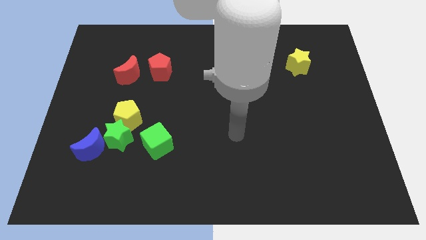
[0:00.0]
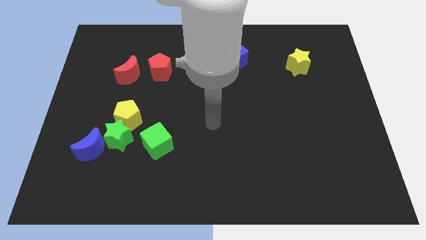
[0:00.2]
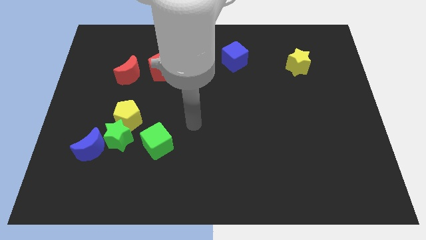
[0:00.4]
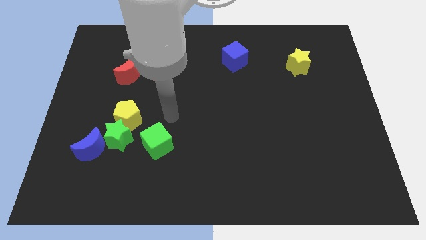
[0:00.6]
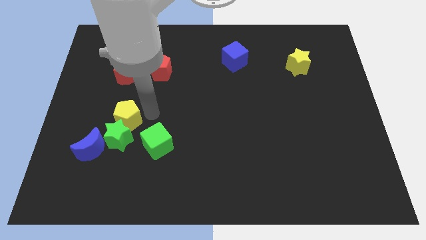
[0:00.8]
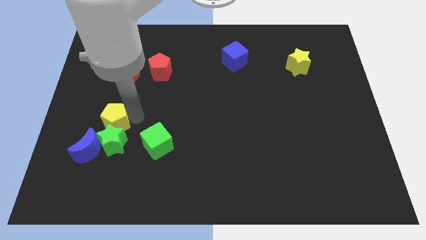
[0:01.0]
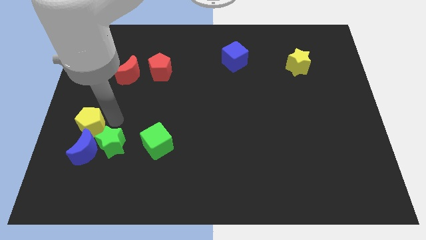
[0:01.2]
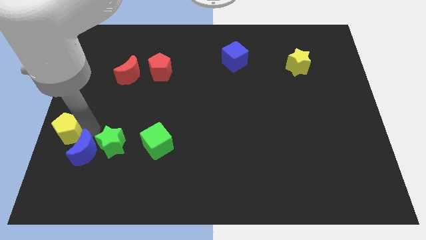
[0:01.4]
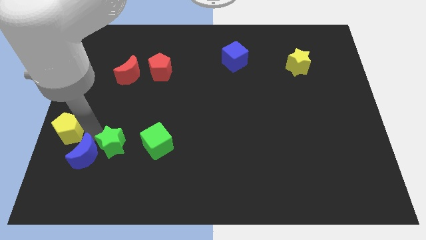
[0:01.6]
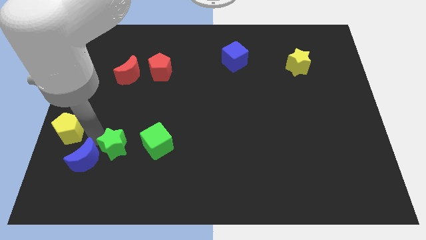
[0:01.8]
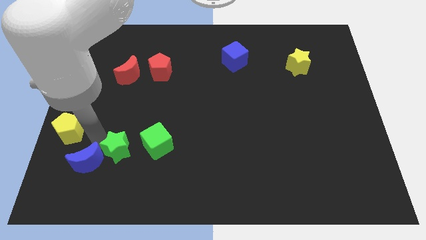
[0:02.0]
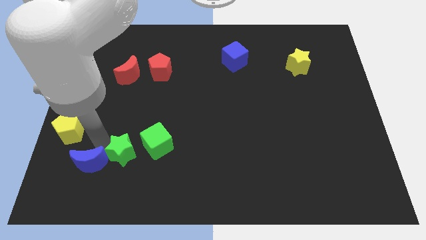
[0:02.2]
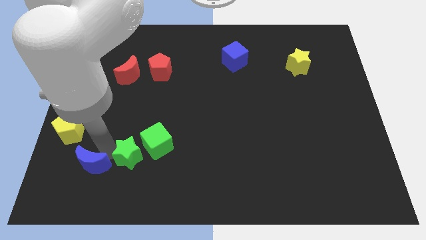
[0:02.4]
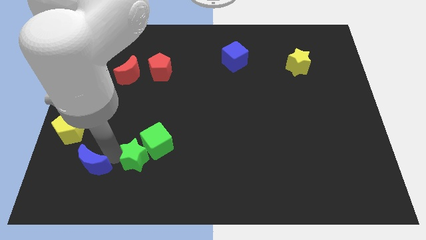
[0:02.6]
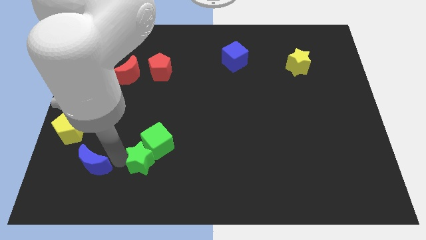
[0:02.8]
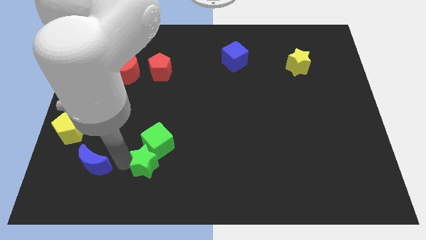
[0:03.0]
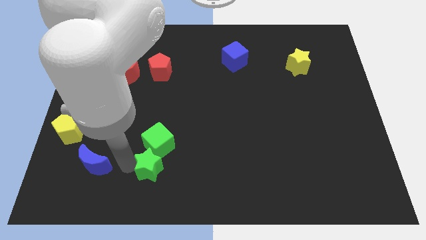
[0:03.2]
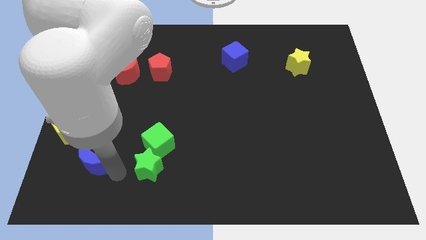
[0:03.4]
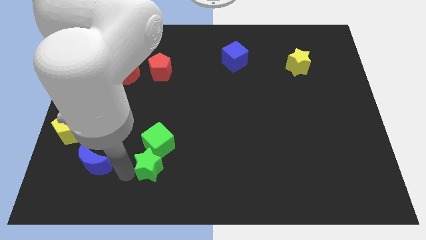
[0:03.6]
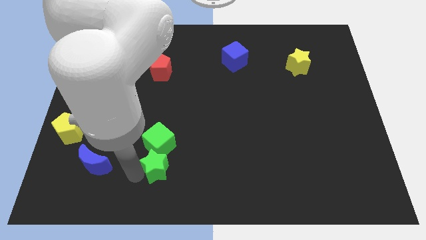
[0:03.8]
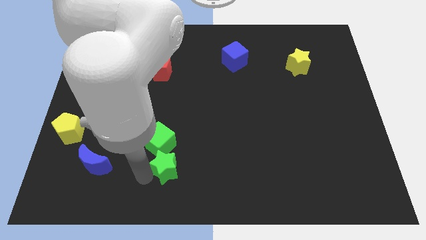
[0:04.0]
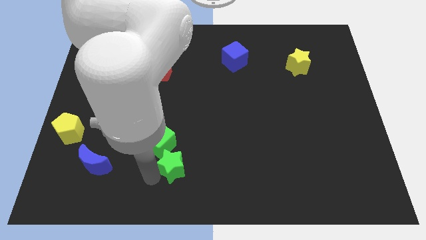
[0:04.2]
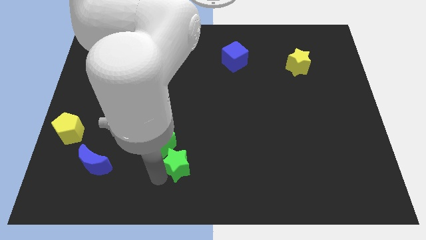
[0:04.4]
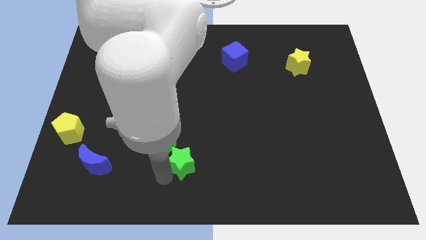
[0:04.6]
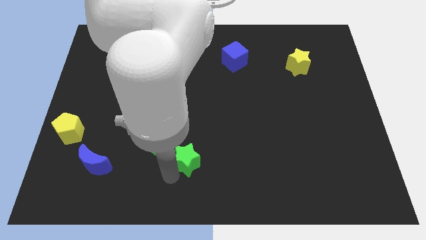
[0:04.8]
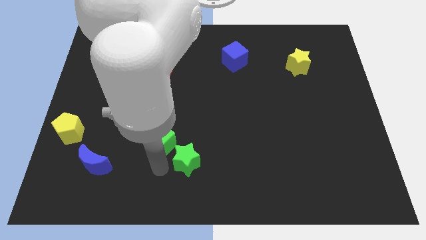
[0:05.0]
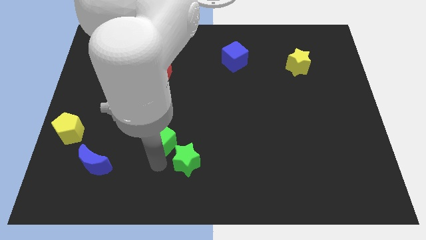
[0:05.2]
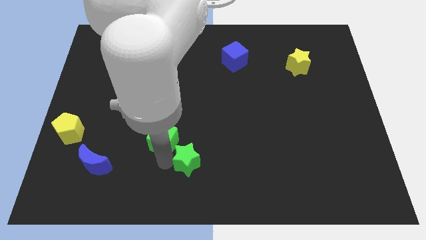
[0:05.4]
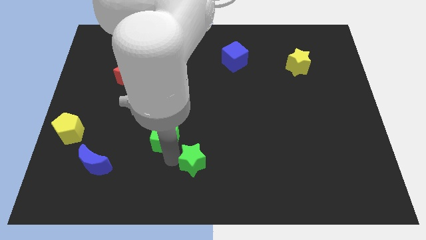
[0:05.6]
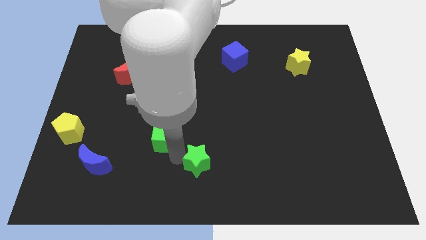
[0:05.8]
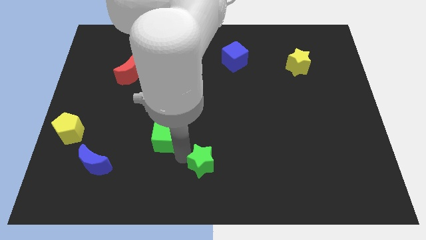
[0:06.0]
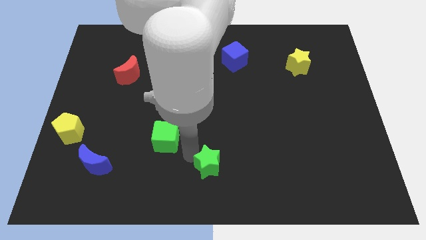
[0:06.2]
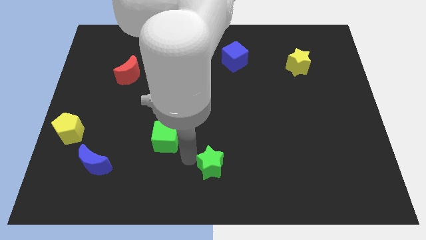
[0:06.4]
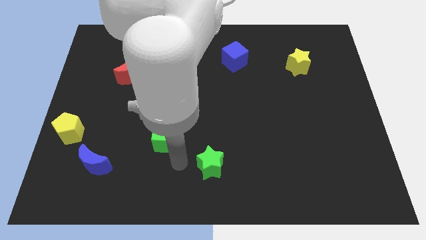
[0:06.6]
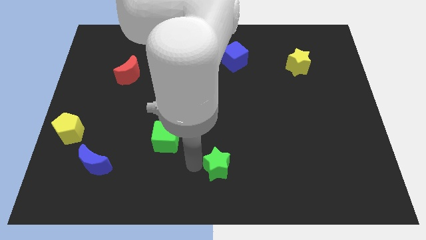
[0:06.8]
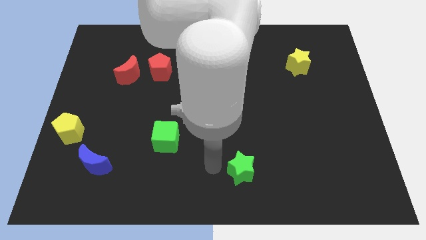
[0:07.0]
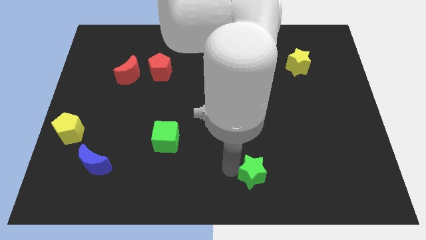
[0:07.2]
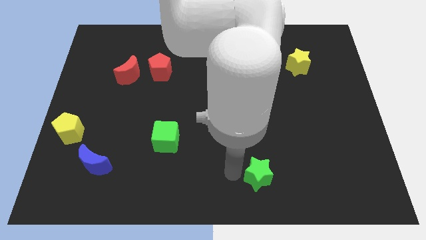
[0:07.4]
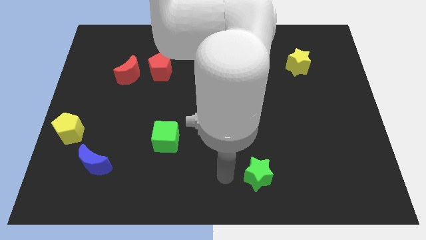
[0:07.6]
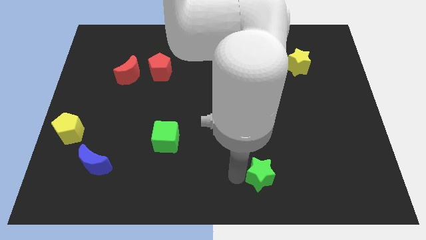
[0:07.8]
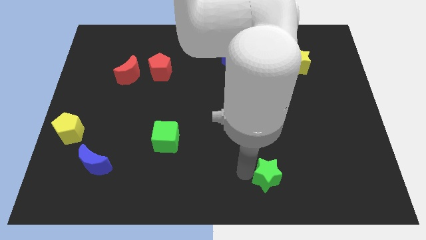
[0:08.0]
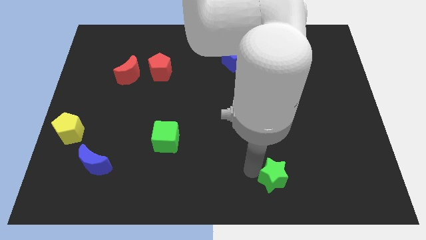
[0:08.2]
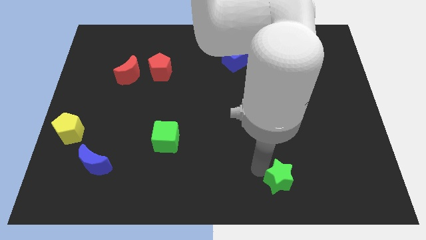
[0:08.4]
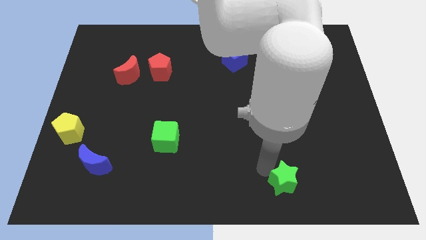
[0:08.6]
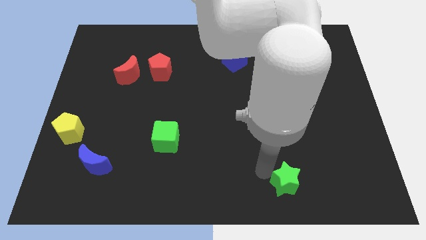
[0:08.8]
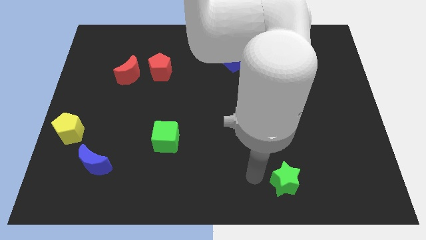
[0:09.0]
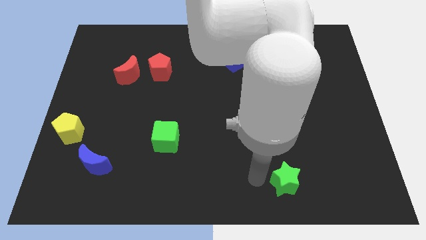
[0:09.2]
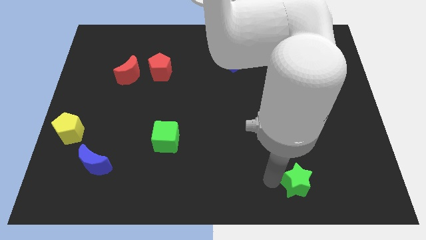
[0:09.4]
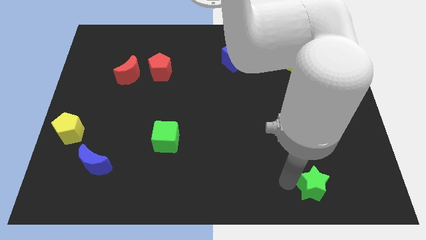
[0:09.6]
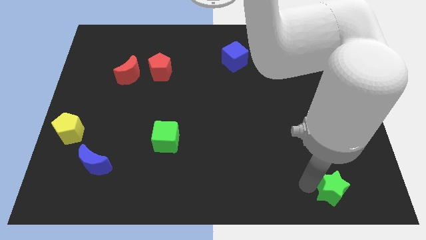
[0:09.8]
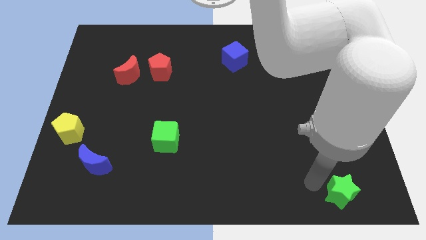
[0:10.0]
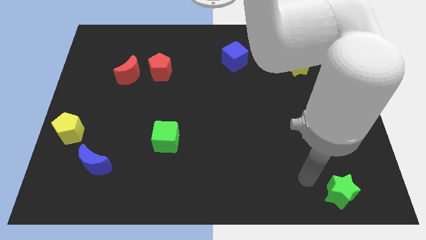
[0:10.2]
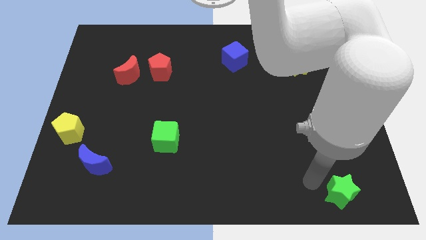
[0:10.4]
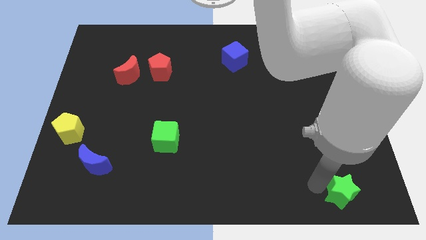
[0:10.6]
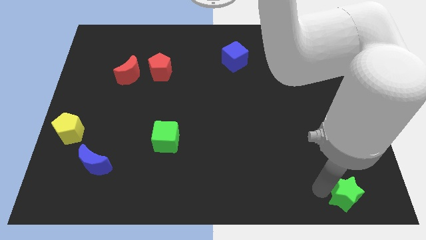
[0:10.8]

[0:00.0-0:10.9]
slide the green star to the bottom right

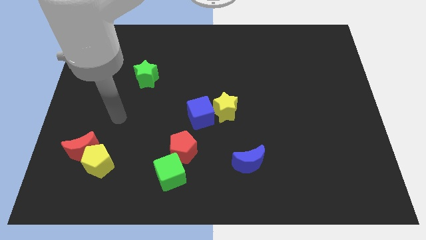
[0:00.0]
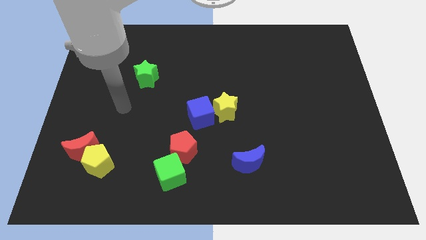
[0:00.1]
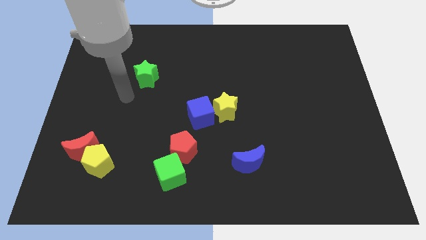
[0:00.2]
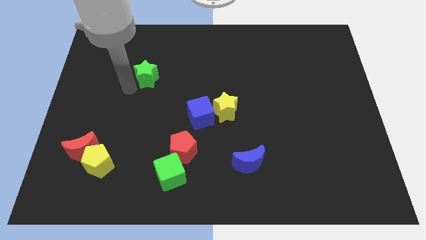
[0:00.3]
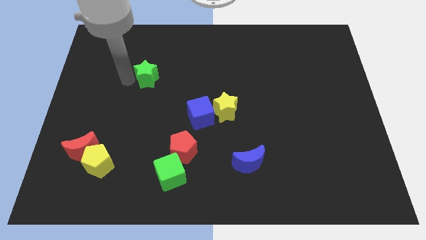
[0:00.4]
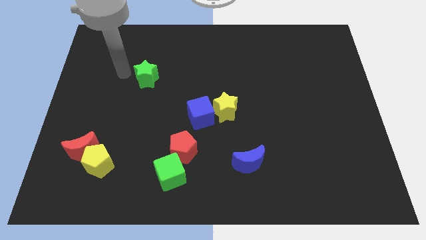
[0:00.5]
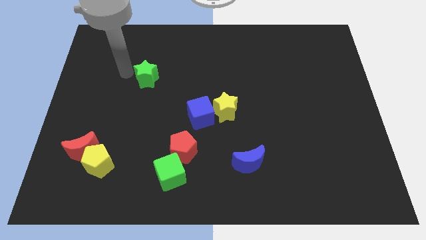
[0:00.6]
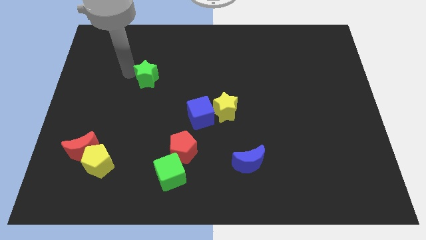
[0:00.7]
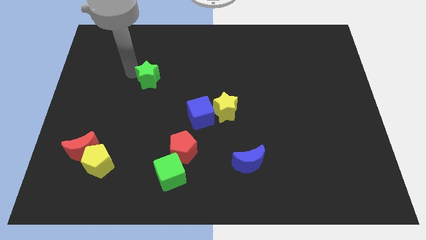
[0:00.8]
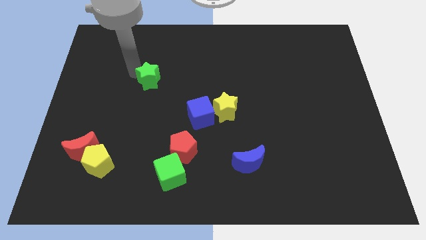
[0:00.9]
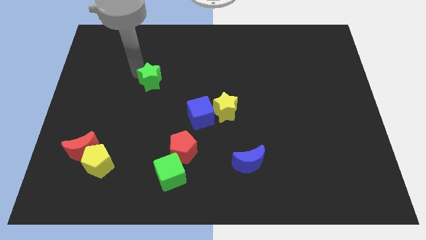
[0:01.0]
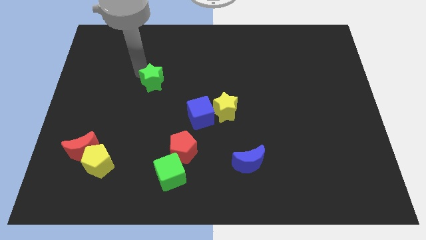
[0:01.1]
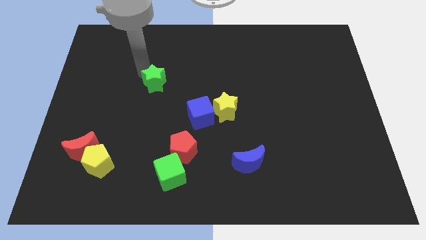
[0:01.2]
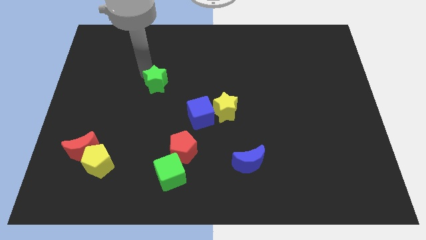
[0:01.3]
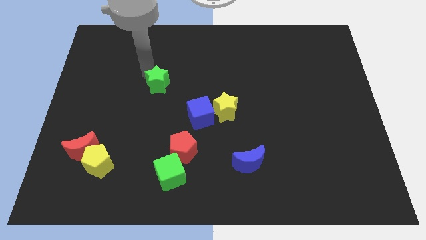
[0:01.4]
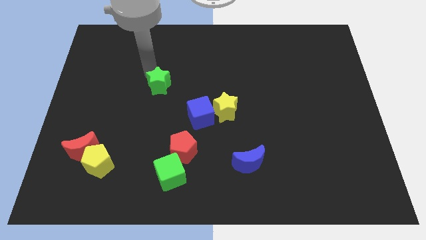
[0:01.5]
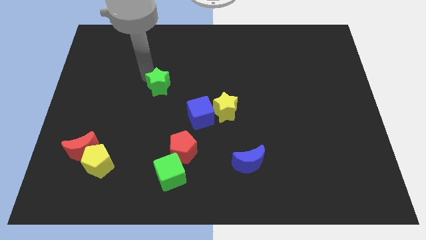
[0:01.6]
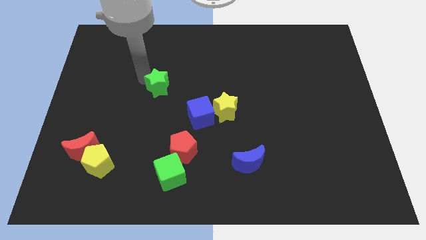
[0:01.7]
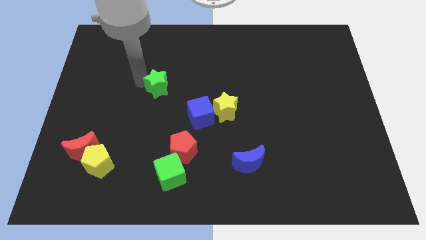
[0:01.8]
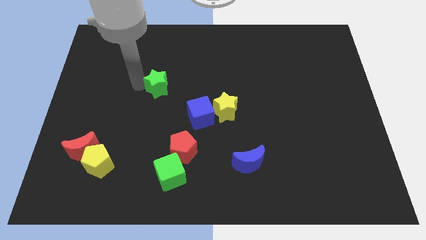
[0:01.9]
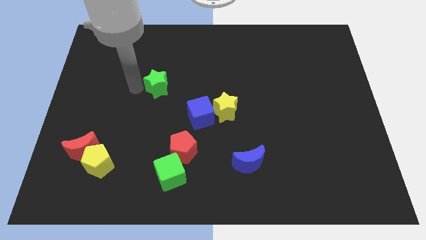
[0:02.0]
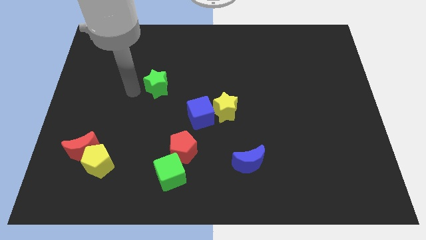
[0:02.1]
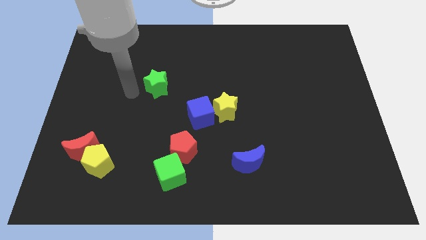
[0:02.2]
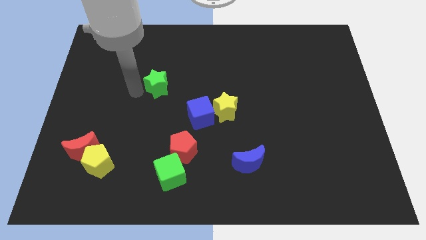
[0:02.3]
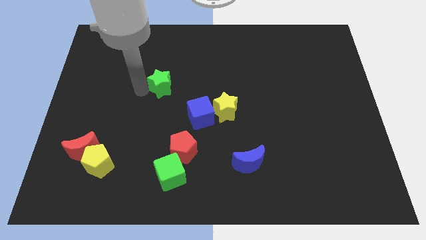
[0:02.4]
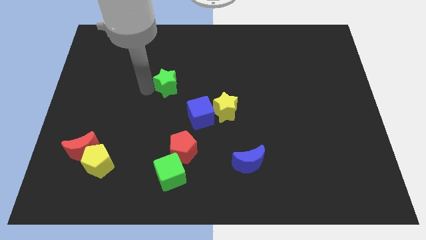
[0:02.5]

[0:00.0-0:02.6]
put the green star to the center
